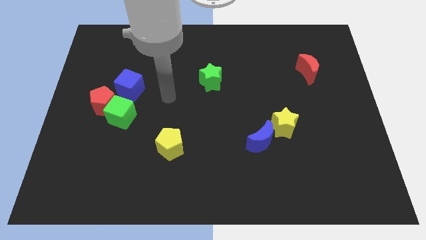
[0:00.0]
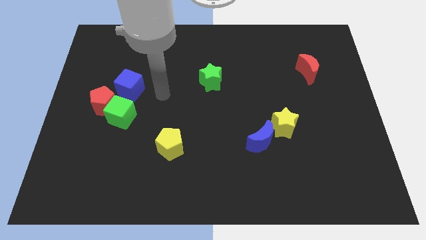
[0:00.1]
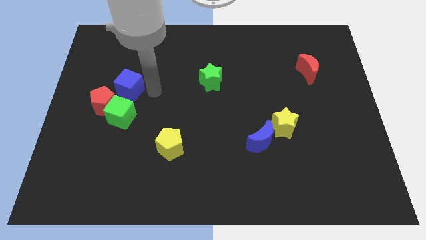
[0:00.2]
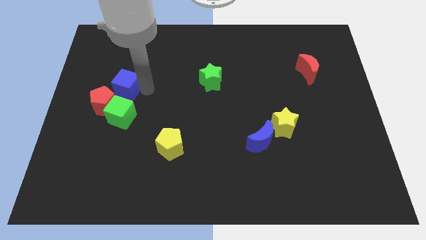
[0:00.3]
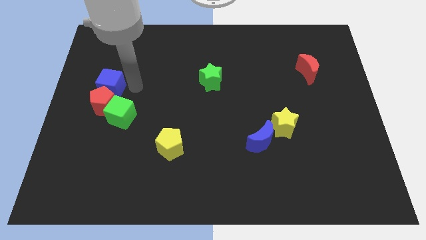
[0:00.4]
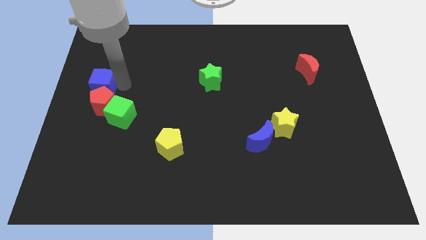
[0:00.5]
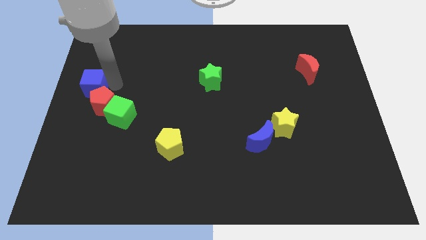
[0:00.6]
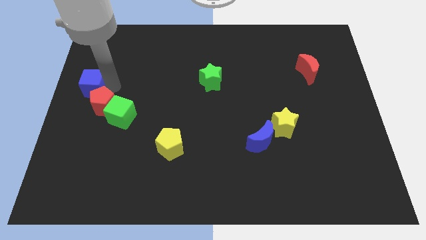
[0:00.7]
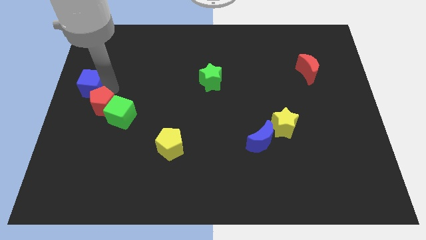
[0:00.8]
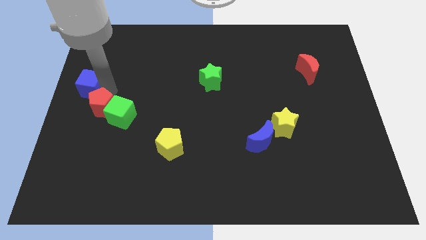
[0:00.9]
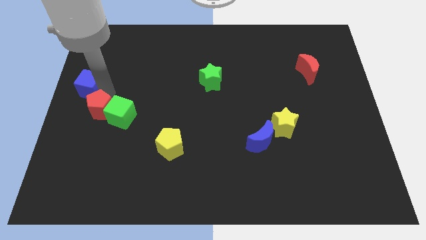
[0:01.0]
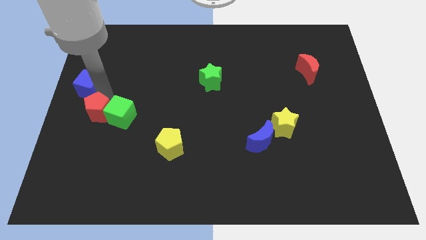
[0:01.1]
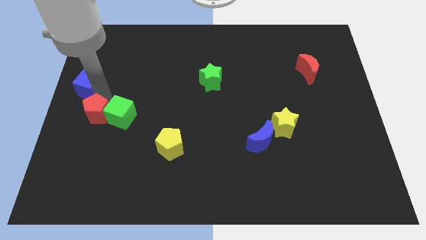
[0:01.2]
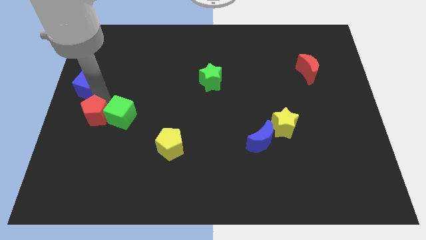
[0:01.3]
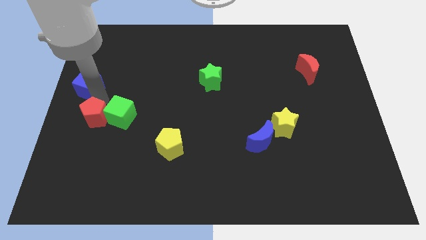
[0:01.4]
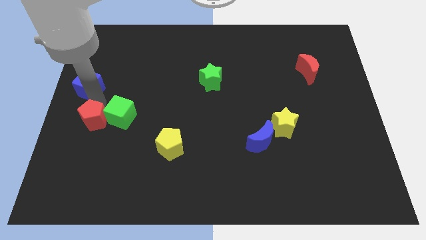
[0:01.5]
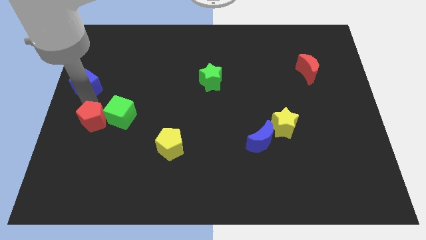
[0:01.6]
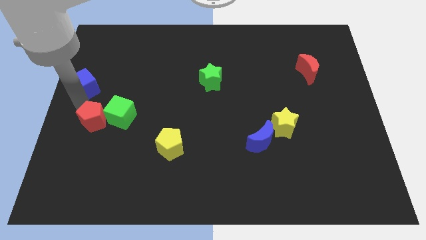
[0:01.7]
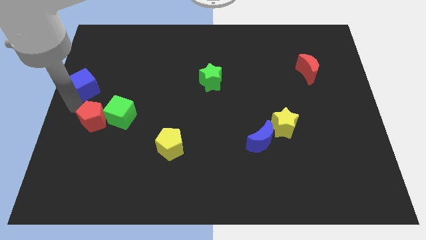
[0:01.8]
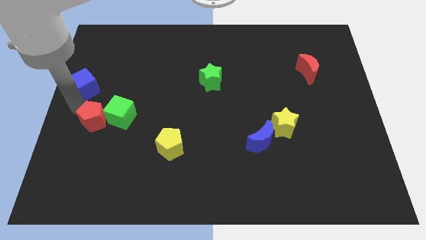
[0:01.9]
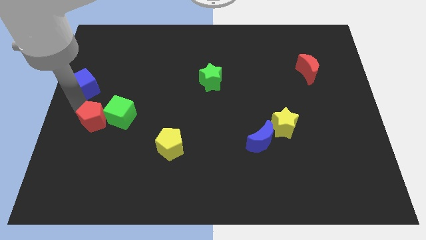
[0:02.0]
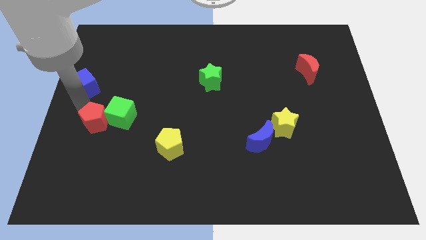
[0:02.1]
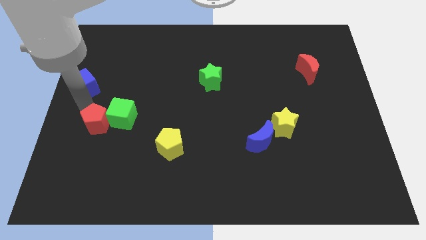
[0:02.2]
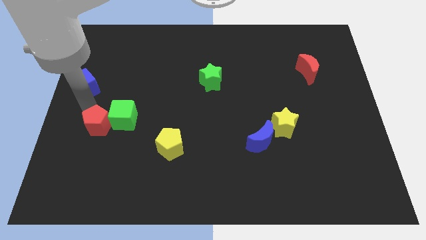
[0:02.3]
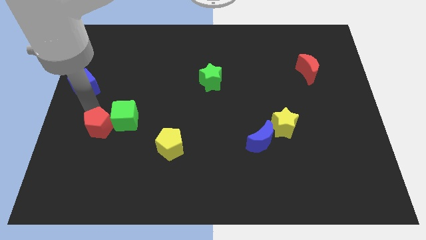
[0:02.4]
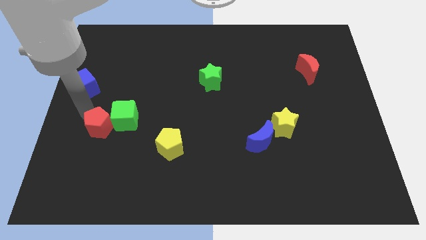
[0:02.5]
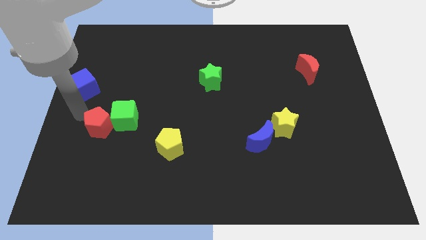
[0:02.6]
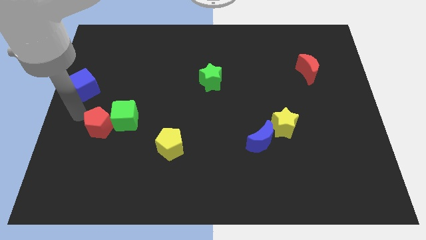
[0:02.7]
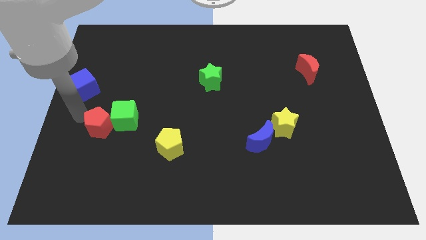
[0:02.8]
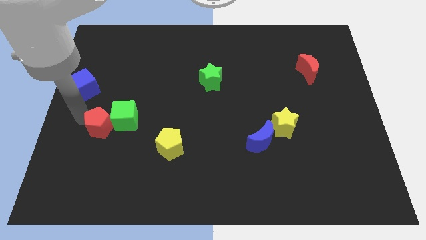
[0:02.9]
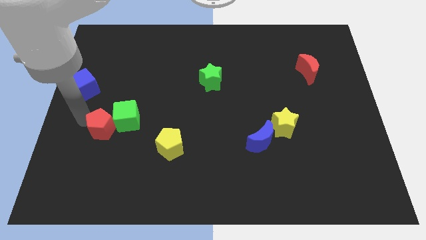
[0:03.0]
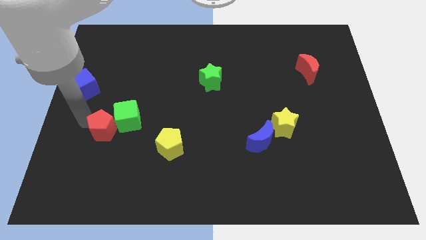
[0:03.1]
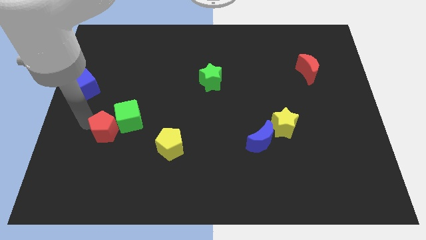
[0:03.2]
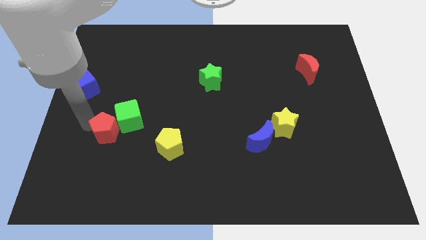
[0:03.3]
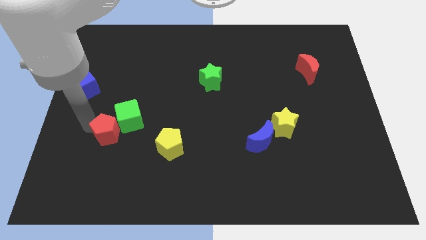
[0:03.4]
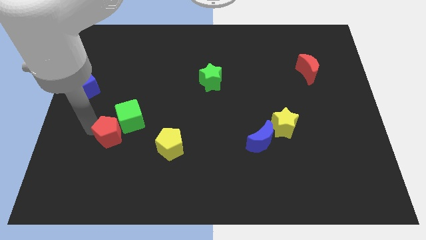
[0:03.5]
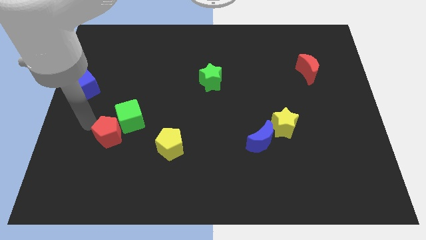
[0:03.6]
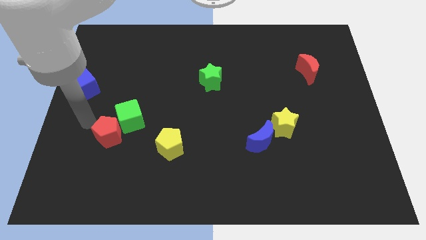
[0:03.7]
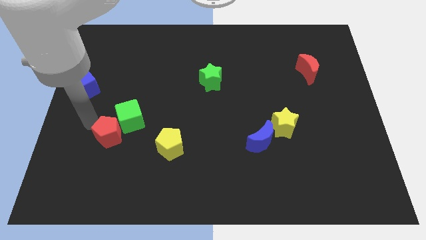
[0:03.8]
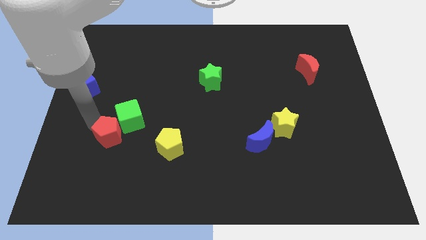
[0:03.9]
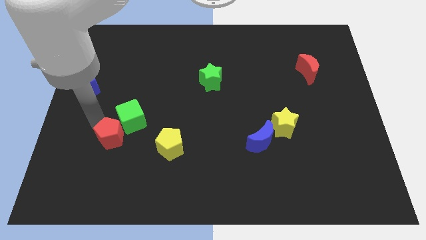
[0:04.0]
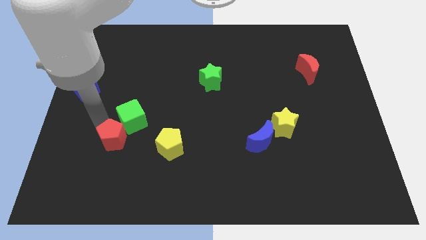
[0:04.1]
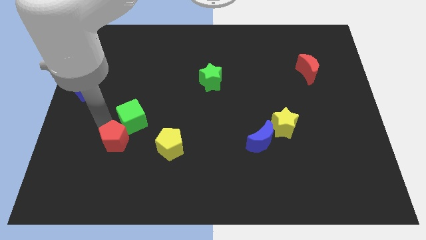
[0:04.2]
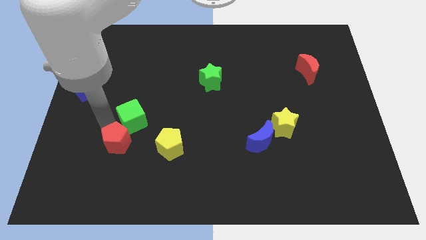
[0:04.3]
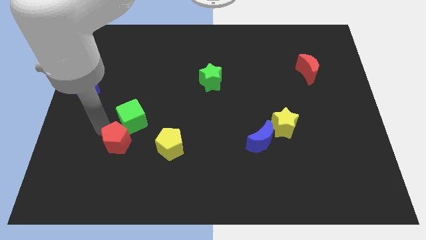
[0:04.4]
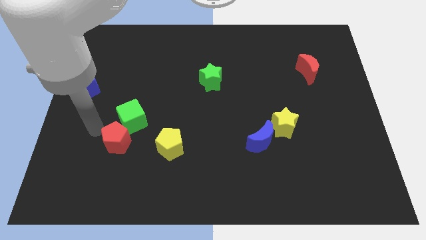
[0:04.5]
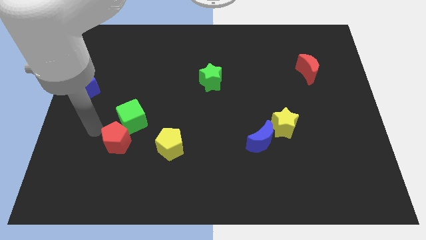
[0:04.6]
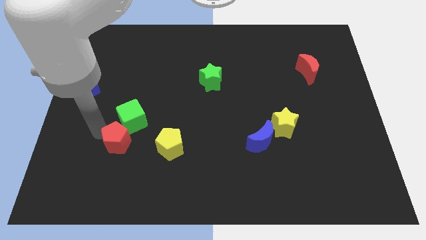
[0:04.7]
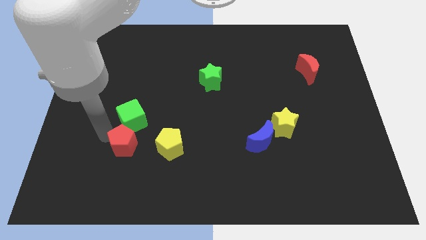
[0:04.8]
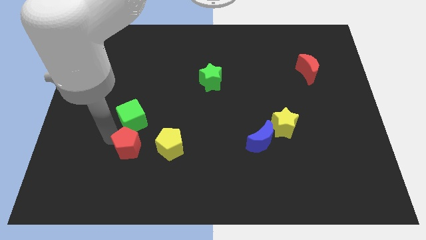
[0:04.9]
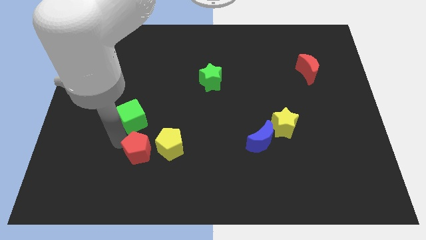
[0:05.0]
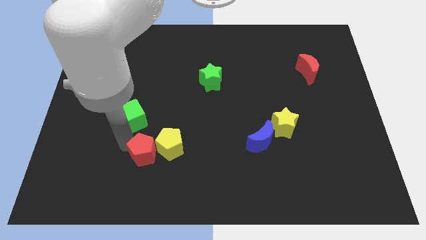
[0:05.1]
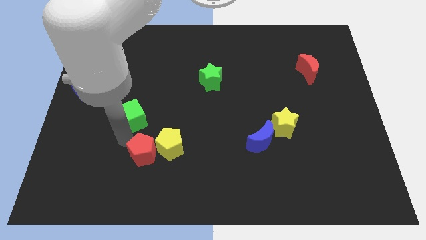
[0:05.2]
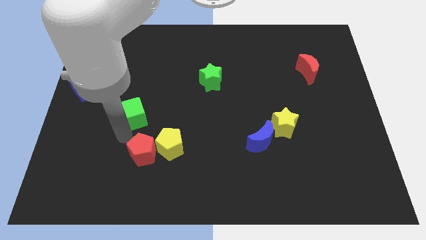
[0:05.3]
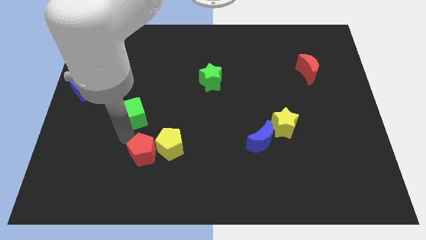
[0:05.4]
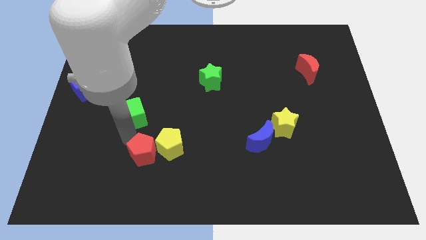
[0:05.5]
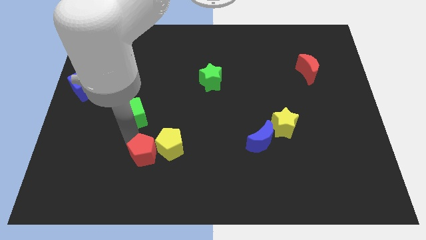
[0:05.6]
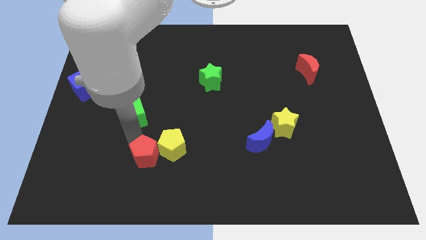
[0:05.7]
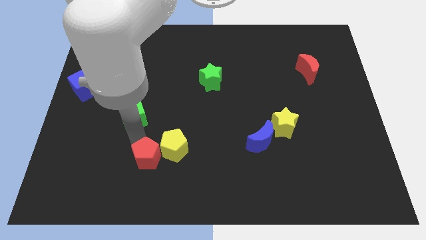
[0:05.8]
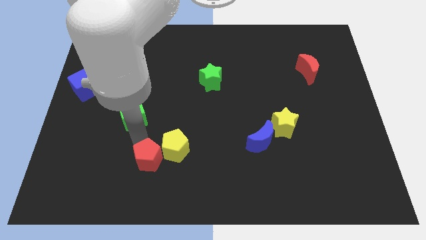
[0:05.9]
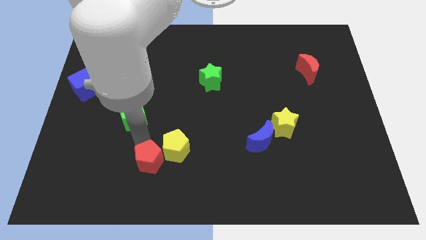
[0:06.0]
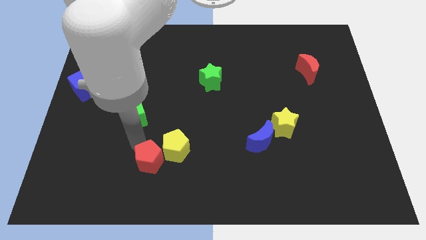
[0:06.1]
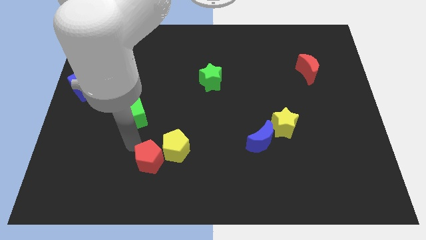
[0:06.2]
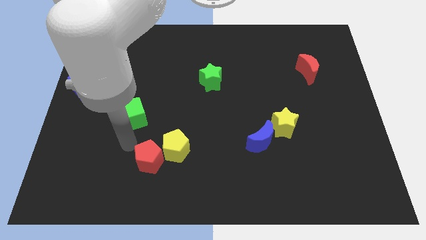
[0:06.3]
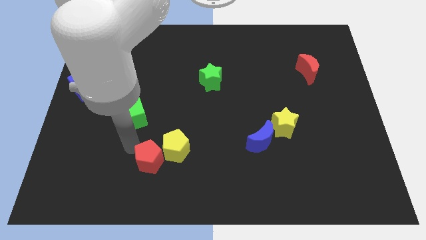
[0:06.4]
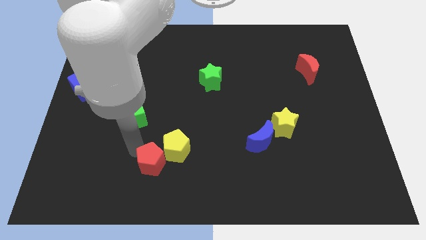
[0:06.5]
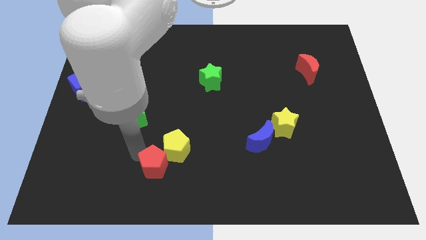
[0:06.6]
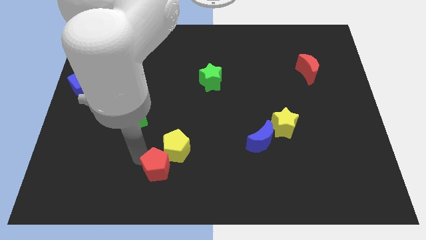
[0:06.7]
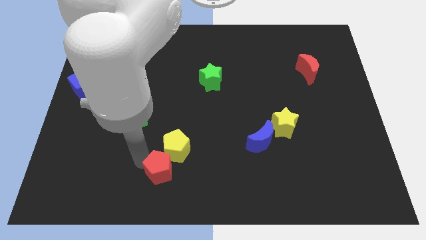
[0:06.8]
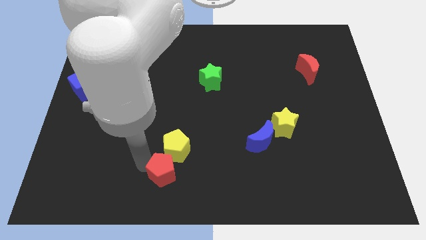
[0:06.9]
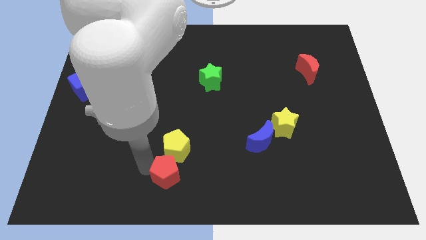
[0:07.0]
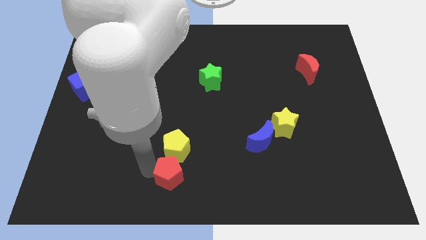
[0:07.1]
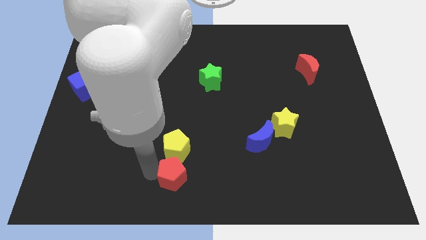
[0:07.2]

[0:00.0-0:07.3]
put the red pentagon diagonally down and to the right of the yellow pentagon
